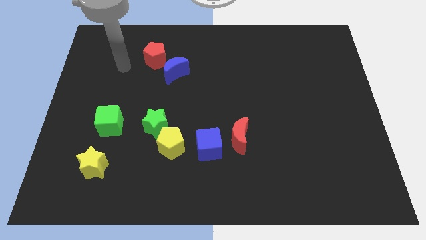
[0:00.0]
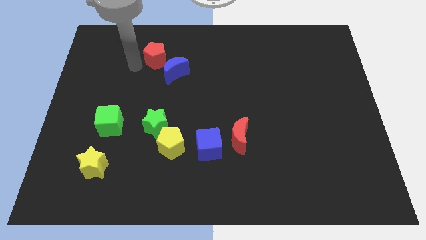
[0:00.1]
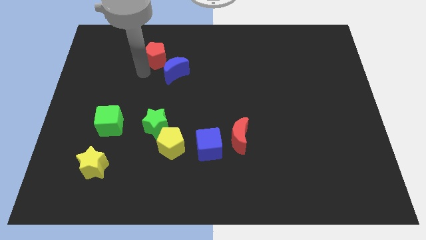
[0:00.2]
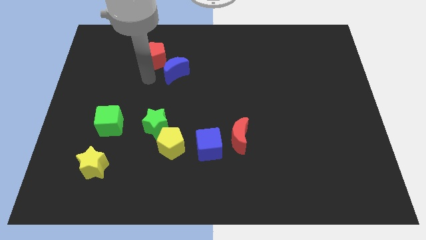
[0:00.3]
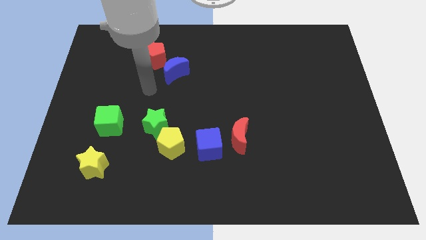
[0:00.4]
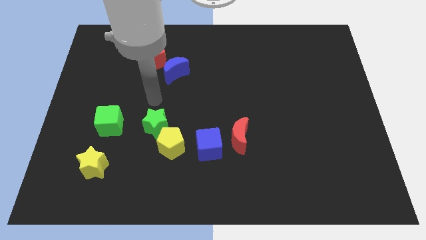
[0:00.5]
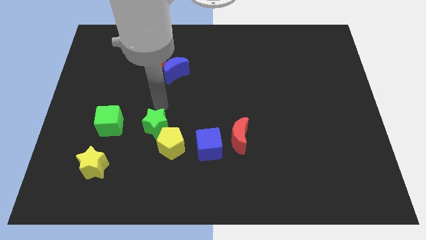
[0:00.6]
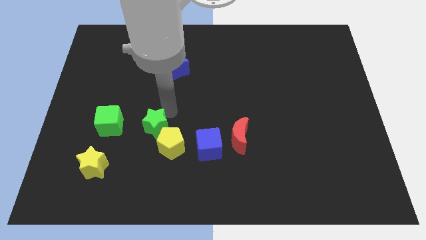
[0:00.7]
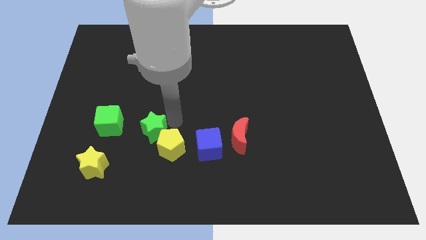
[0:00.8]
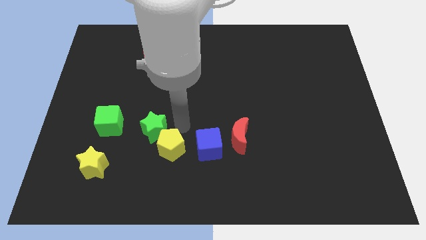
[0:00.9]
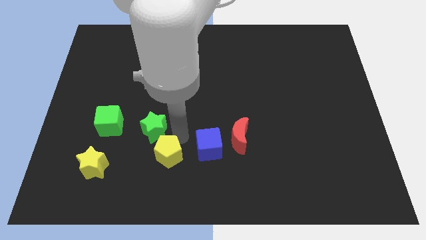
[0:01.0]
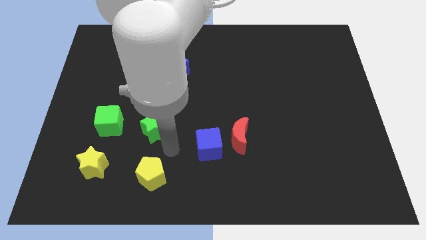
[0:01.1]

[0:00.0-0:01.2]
pull the green star apart from the yellow pentagon

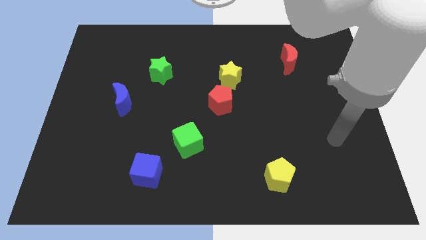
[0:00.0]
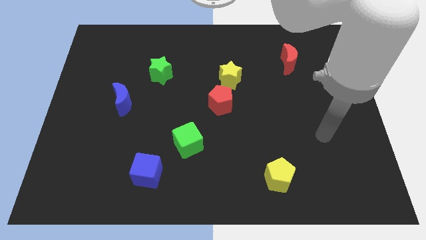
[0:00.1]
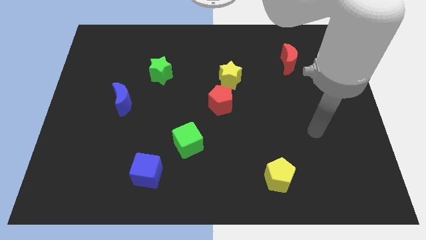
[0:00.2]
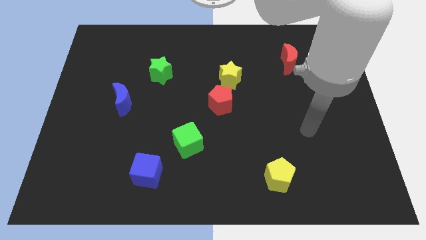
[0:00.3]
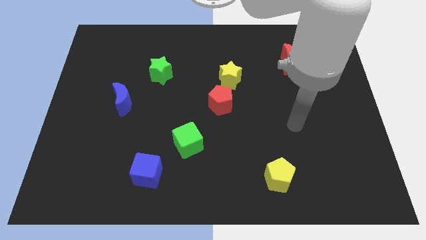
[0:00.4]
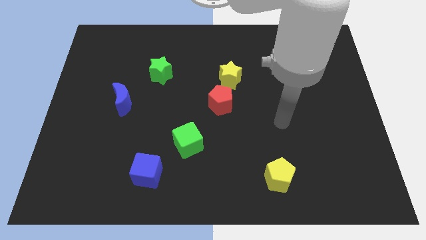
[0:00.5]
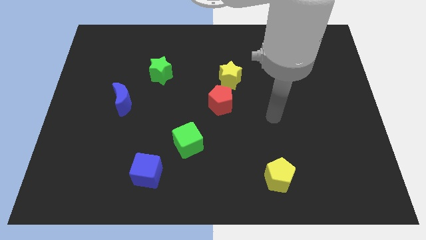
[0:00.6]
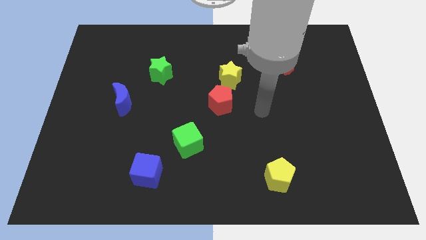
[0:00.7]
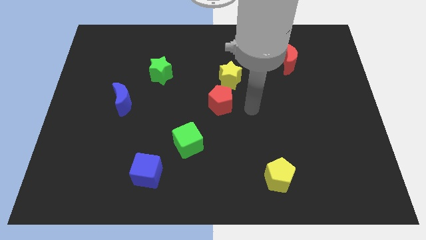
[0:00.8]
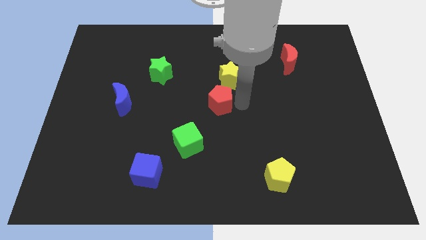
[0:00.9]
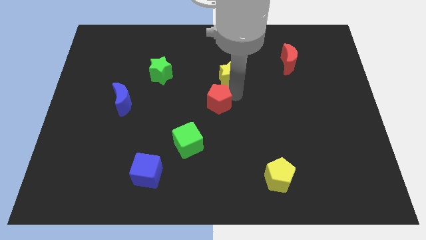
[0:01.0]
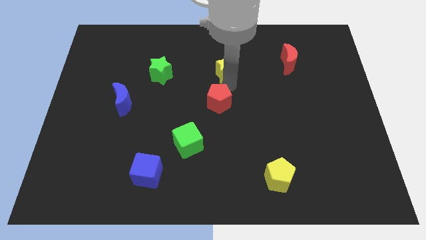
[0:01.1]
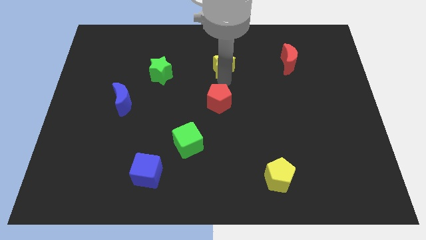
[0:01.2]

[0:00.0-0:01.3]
move the red pentagon away from the yellow star

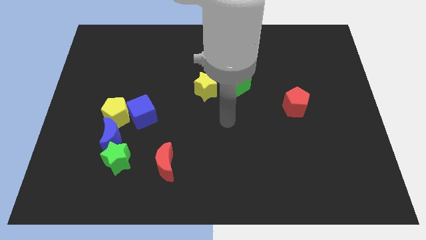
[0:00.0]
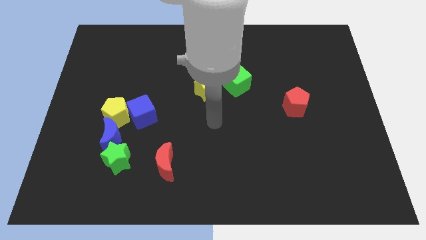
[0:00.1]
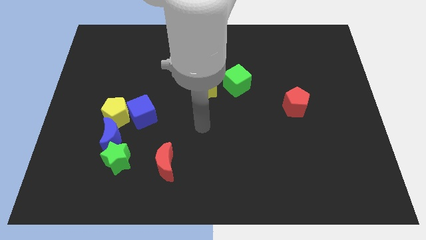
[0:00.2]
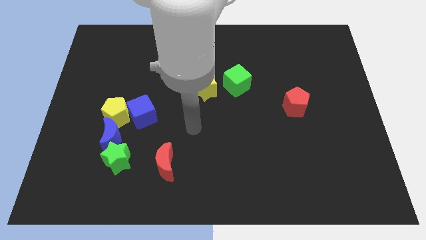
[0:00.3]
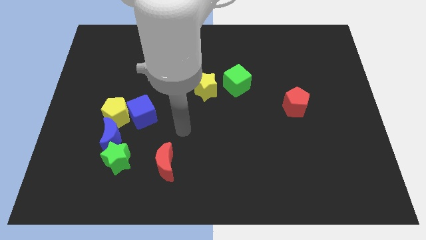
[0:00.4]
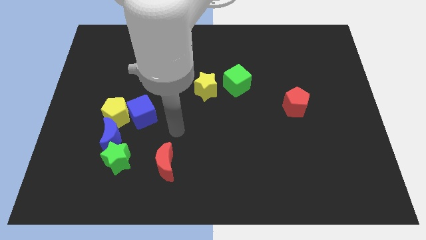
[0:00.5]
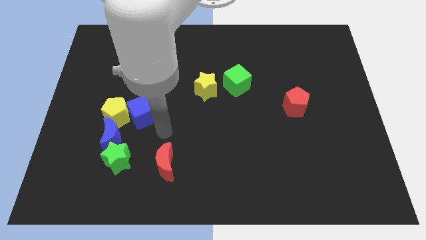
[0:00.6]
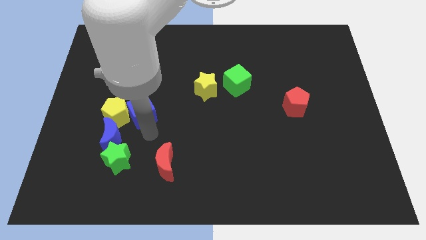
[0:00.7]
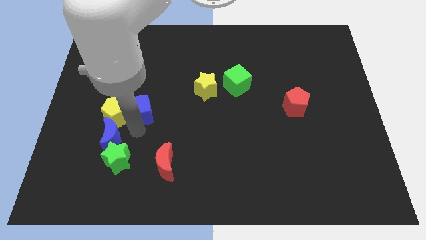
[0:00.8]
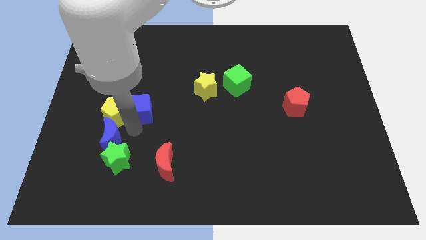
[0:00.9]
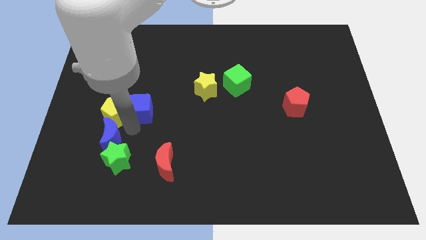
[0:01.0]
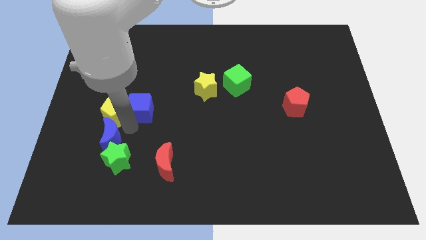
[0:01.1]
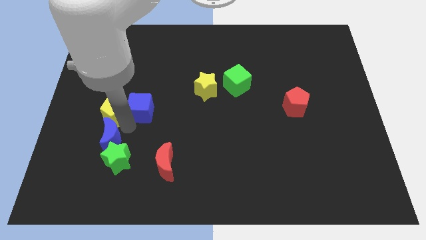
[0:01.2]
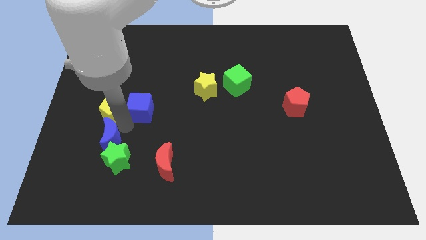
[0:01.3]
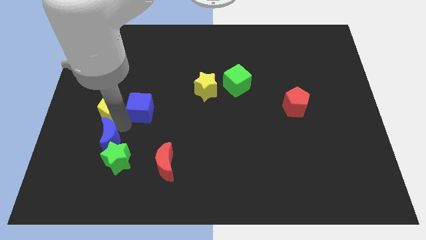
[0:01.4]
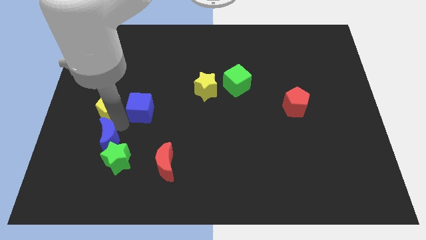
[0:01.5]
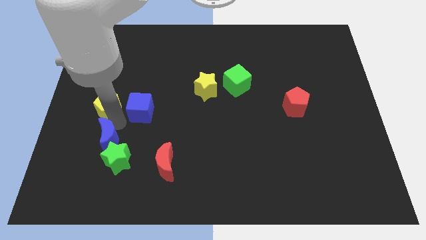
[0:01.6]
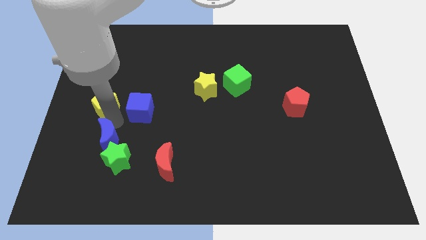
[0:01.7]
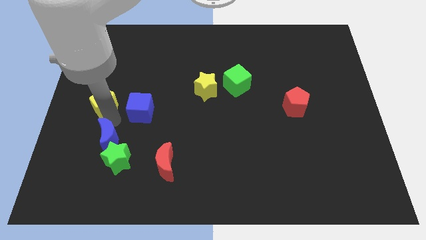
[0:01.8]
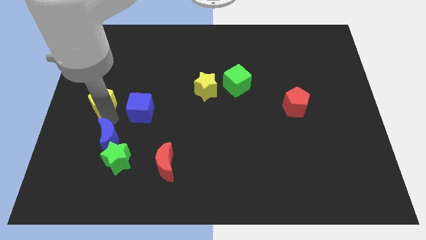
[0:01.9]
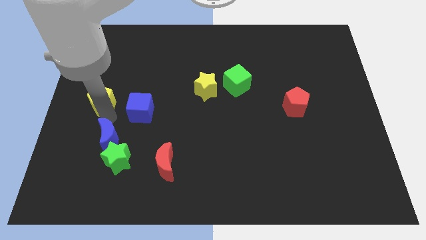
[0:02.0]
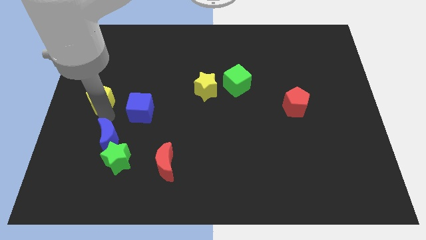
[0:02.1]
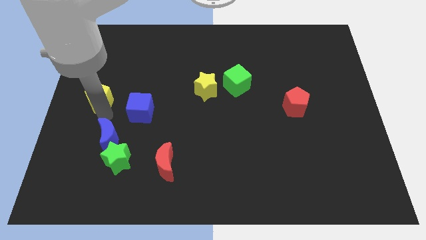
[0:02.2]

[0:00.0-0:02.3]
separate the yellow pentagon from the blue cube and blue moon

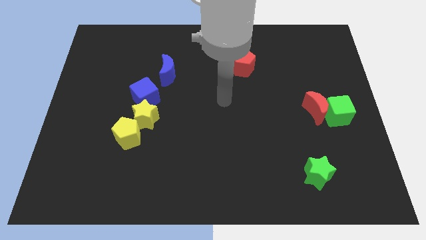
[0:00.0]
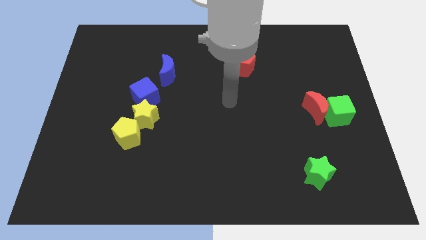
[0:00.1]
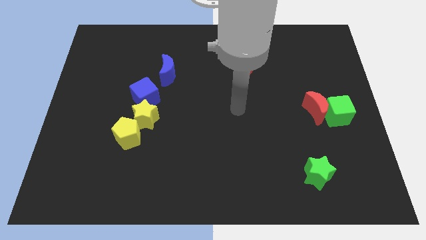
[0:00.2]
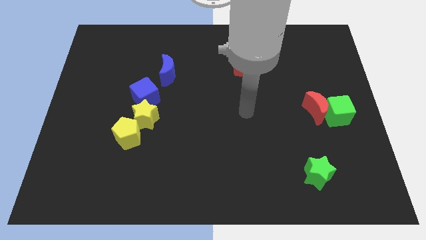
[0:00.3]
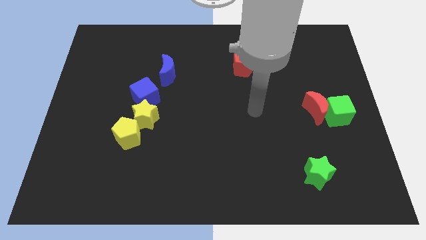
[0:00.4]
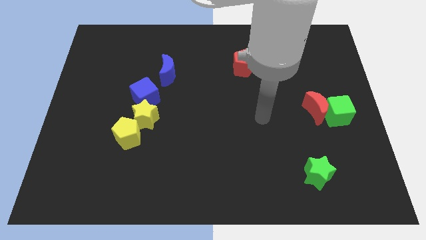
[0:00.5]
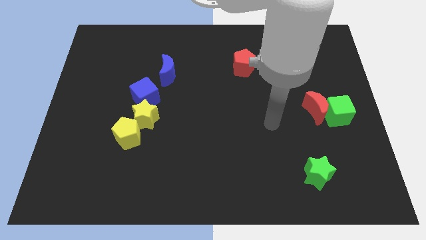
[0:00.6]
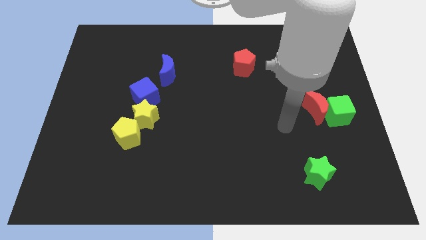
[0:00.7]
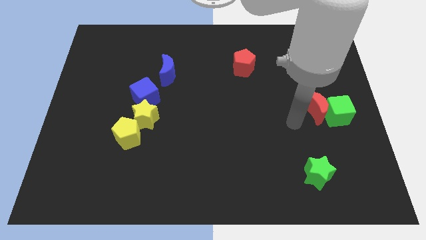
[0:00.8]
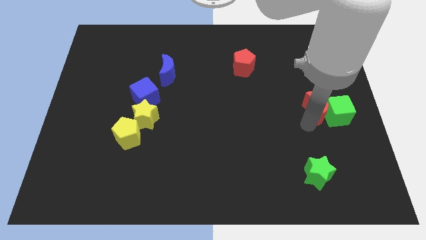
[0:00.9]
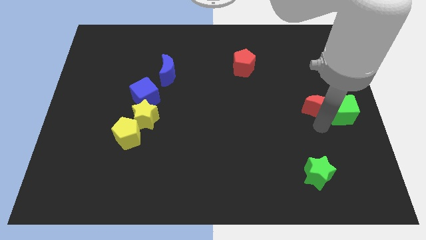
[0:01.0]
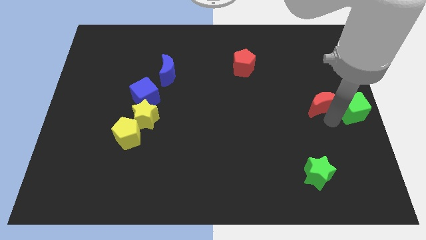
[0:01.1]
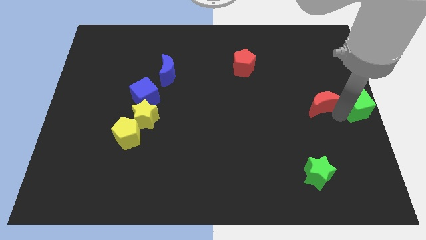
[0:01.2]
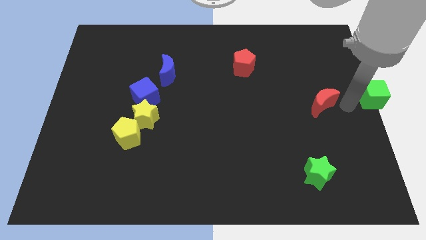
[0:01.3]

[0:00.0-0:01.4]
move the red moon away from the green cube

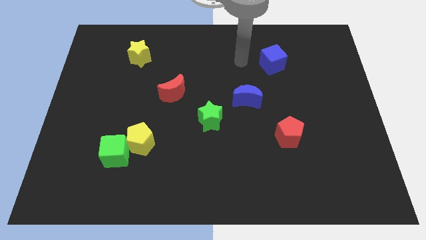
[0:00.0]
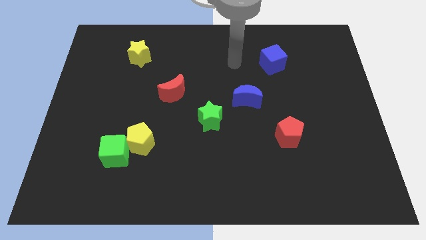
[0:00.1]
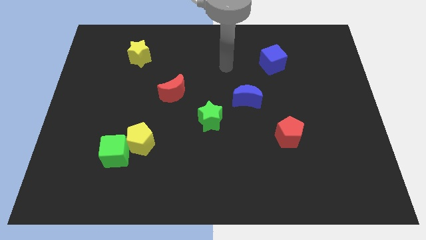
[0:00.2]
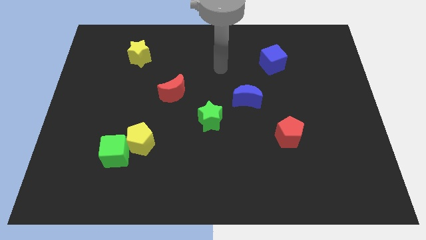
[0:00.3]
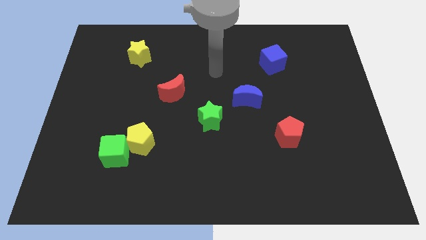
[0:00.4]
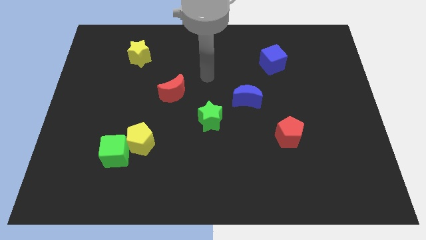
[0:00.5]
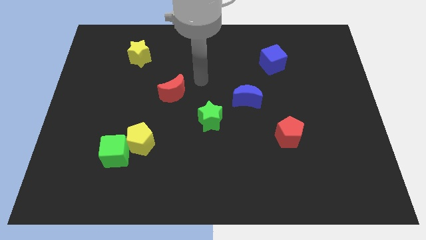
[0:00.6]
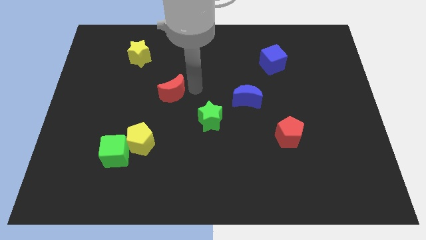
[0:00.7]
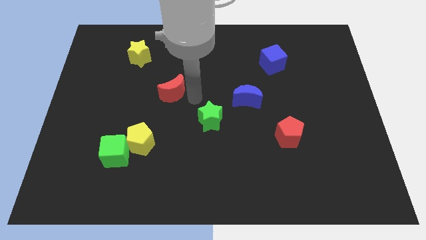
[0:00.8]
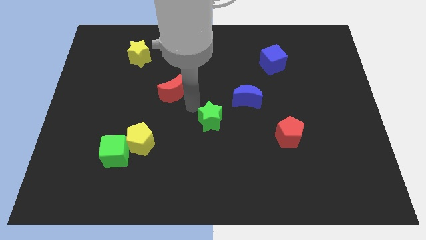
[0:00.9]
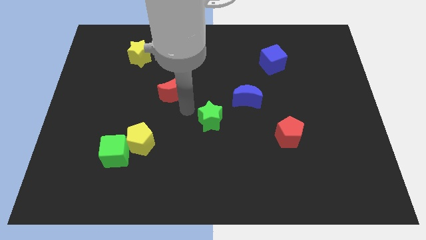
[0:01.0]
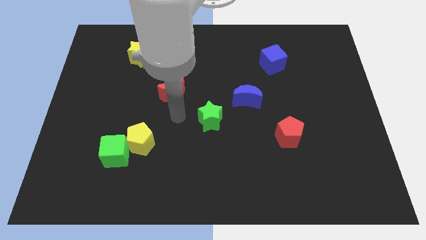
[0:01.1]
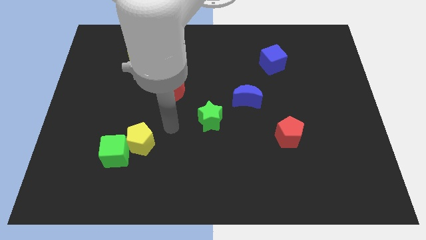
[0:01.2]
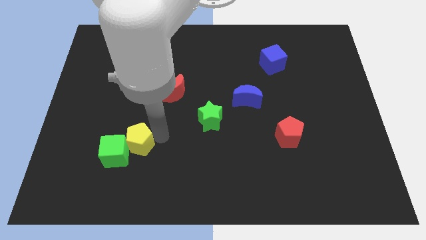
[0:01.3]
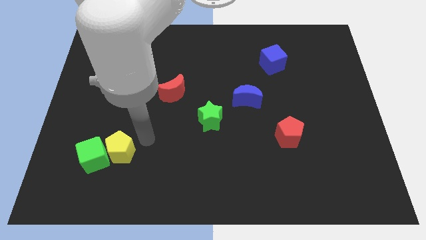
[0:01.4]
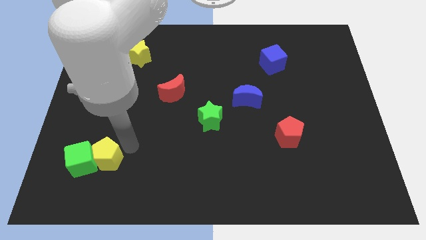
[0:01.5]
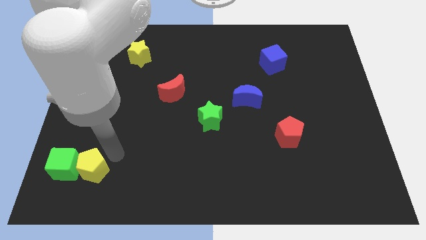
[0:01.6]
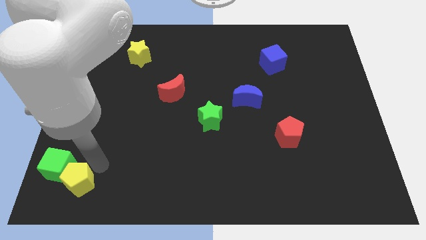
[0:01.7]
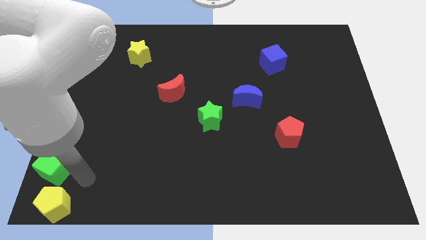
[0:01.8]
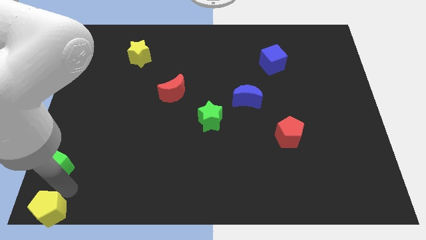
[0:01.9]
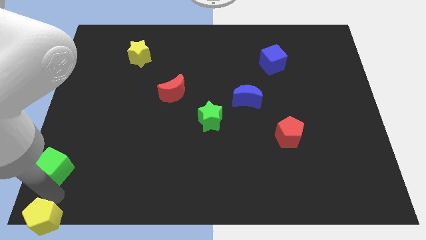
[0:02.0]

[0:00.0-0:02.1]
separate the green cube from the yellow pentagon

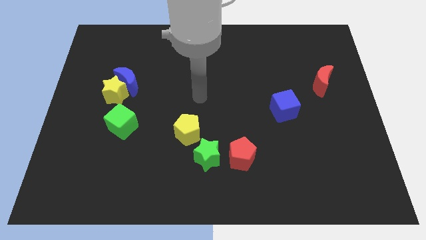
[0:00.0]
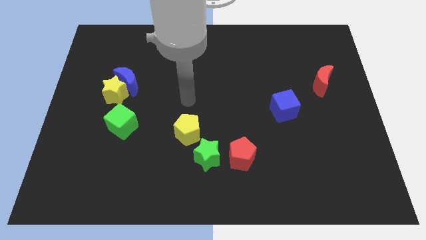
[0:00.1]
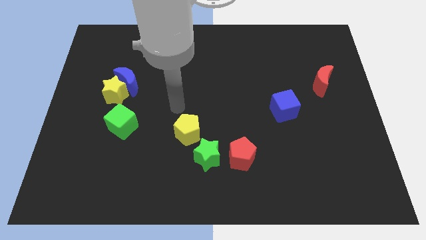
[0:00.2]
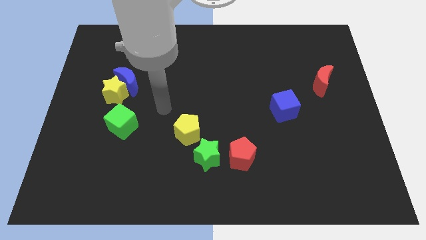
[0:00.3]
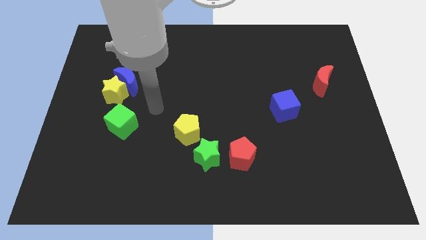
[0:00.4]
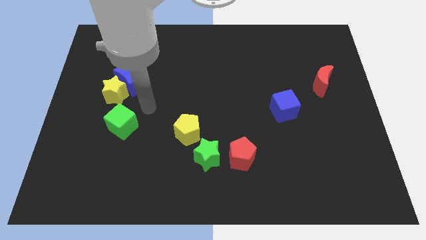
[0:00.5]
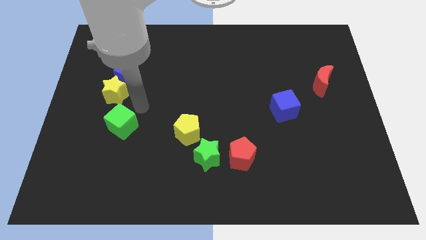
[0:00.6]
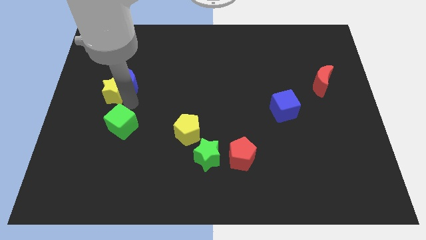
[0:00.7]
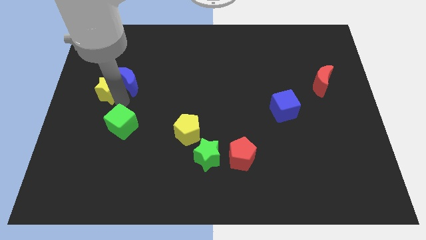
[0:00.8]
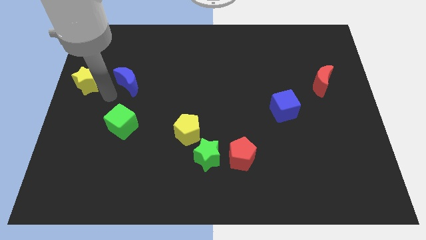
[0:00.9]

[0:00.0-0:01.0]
pull the blue moon apart from the yellow star
